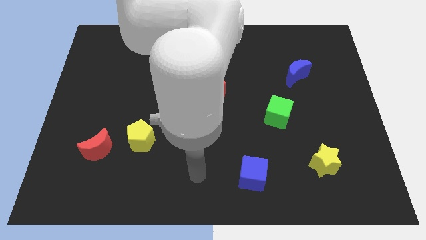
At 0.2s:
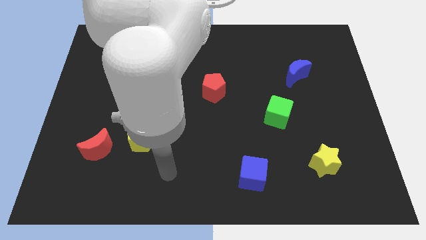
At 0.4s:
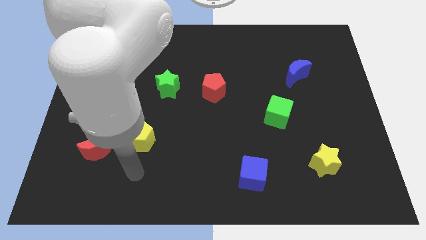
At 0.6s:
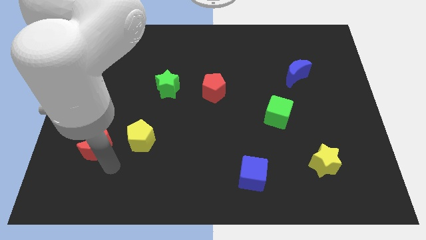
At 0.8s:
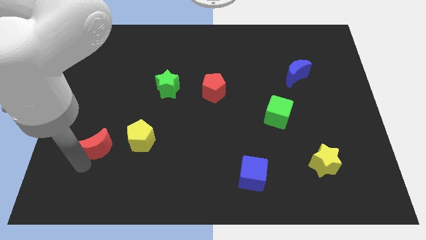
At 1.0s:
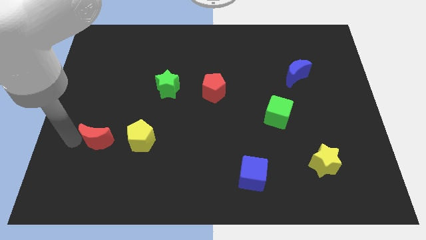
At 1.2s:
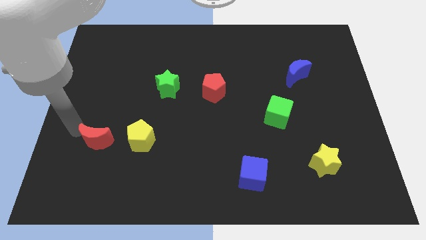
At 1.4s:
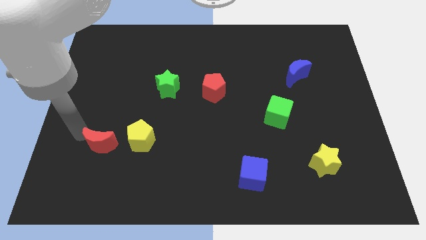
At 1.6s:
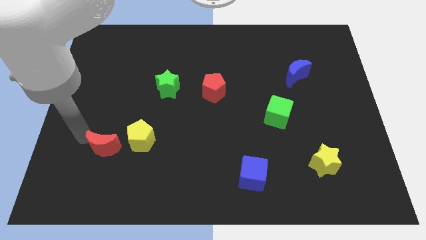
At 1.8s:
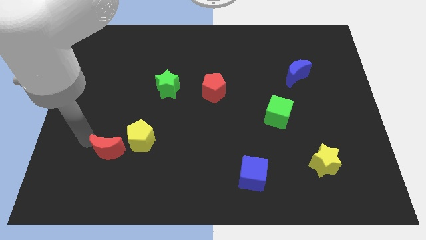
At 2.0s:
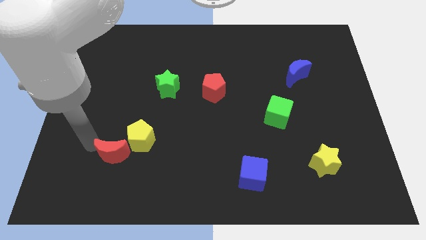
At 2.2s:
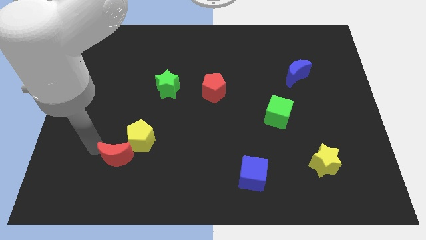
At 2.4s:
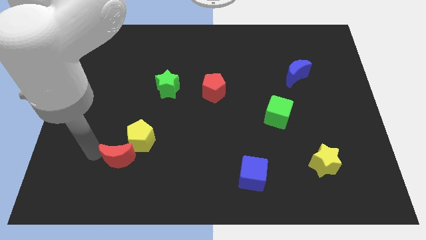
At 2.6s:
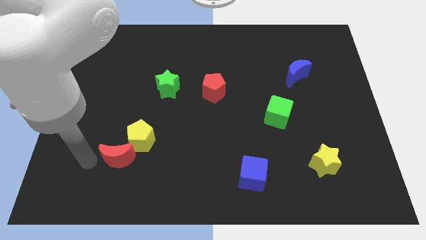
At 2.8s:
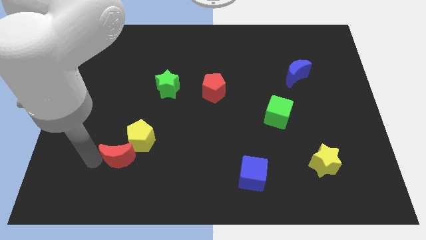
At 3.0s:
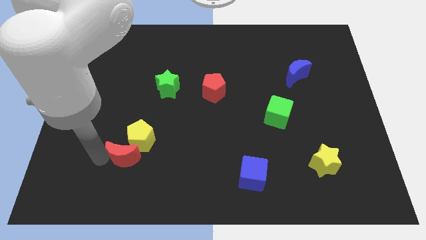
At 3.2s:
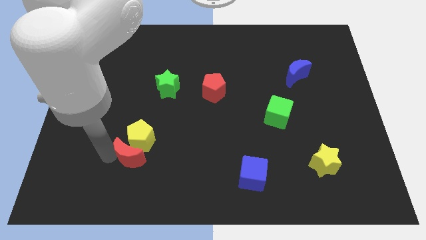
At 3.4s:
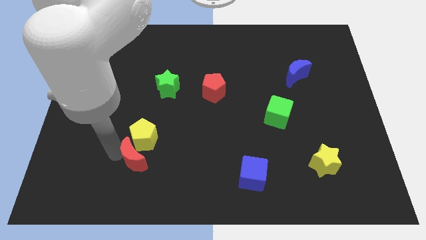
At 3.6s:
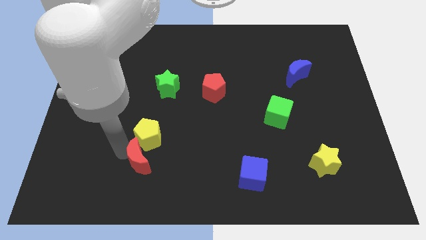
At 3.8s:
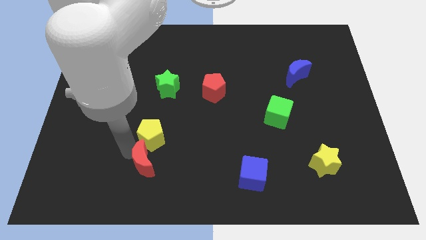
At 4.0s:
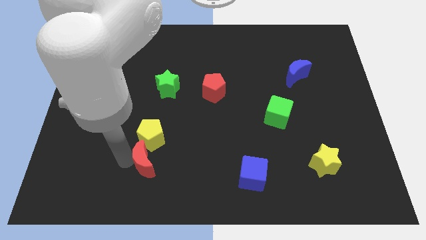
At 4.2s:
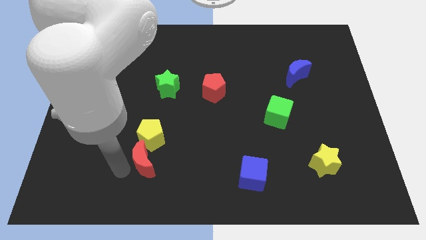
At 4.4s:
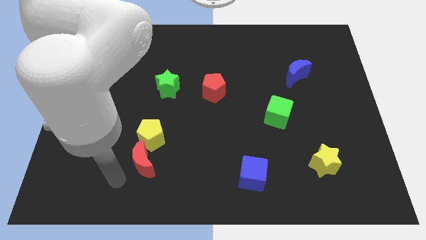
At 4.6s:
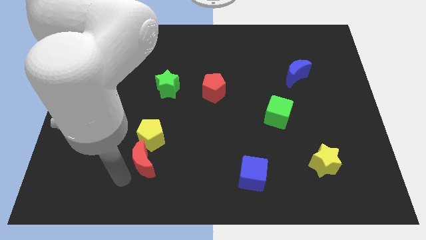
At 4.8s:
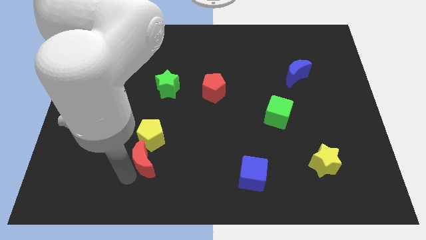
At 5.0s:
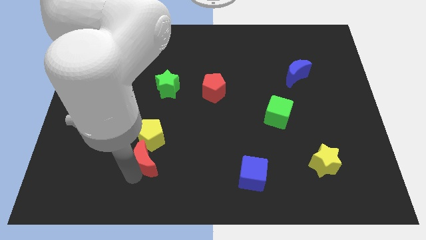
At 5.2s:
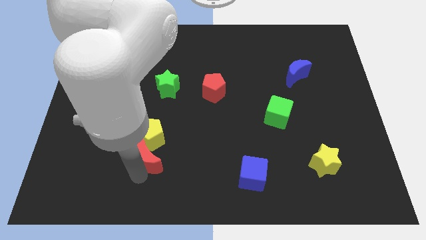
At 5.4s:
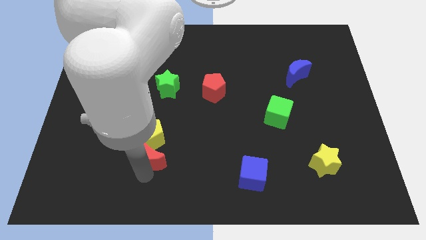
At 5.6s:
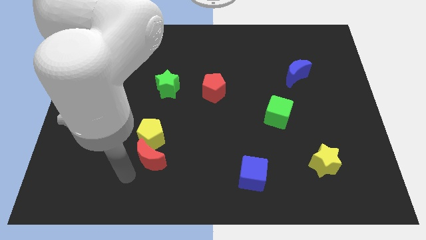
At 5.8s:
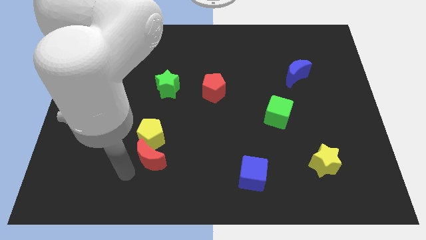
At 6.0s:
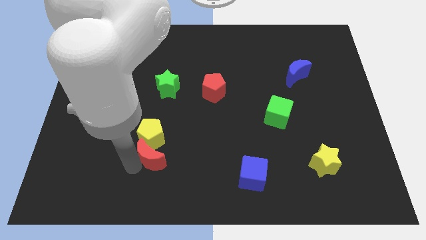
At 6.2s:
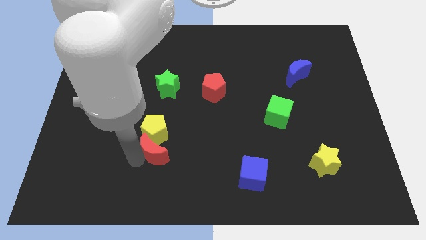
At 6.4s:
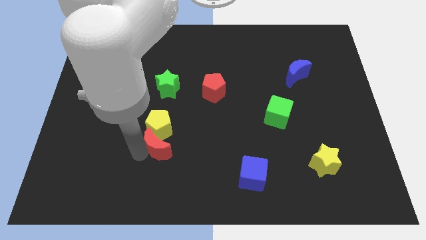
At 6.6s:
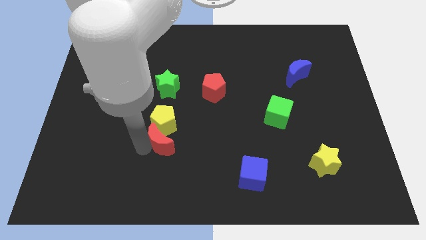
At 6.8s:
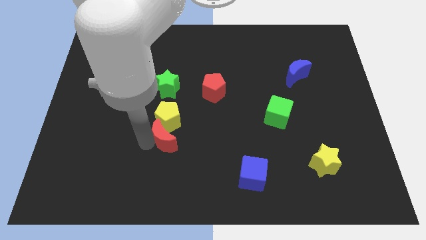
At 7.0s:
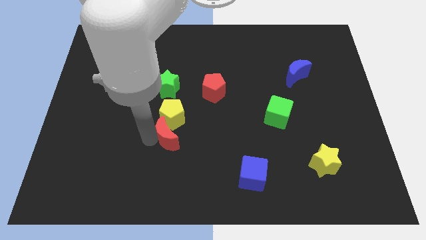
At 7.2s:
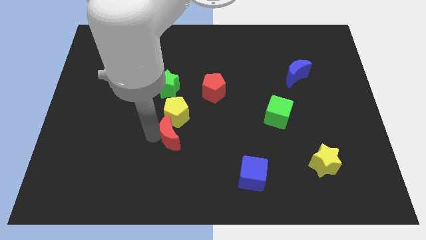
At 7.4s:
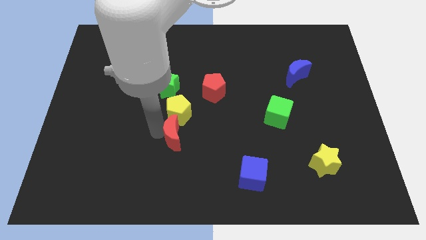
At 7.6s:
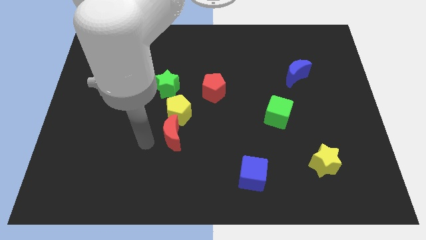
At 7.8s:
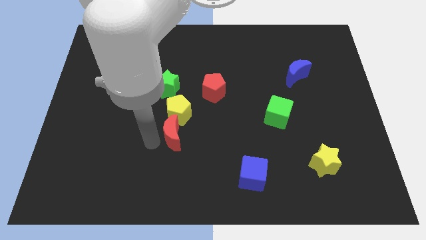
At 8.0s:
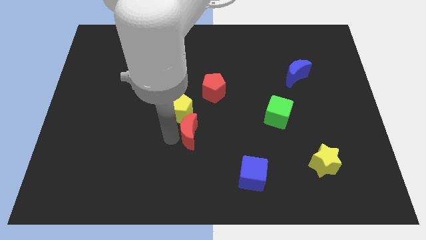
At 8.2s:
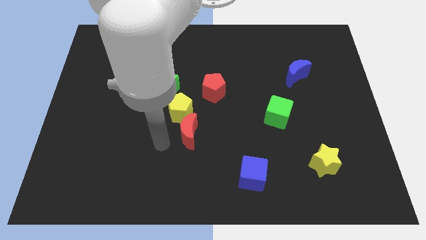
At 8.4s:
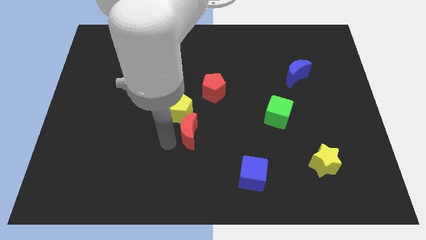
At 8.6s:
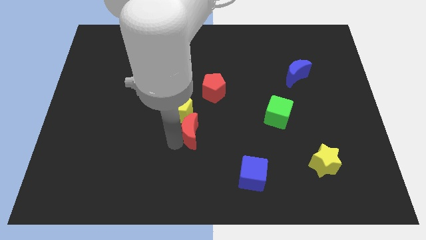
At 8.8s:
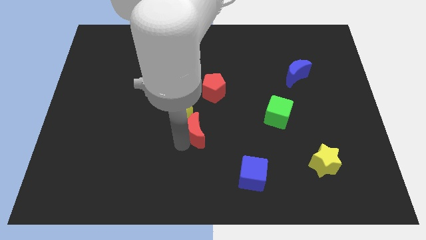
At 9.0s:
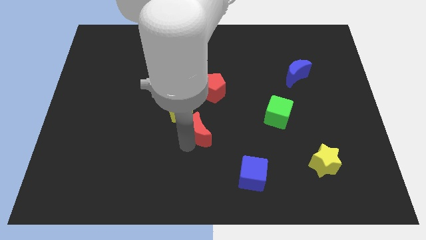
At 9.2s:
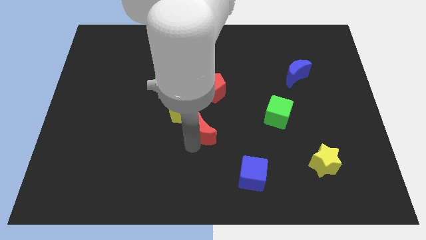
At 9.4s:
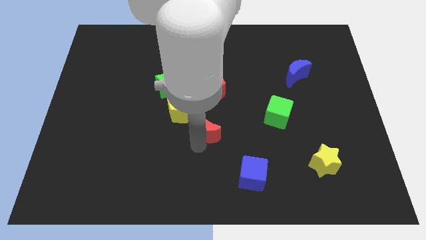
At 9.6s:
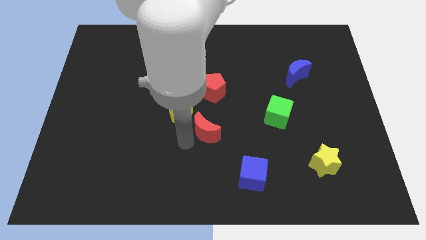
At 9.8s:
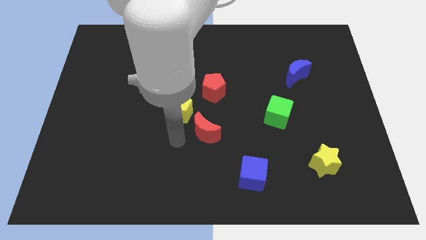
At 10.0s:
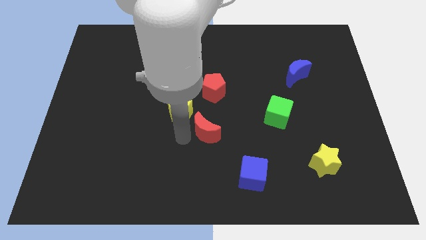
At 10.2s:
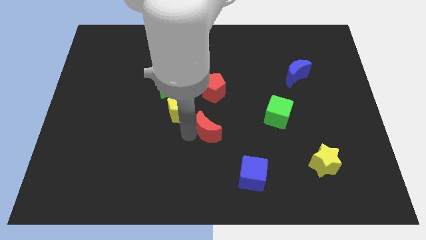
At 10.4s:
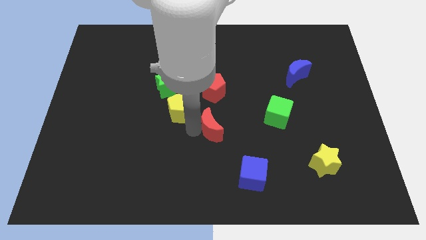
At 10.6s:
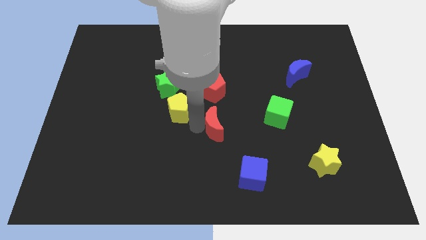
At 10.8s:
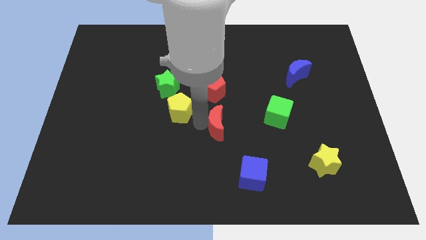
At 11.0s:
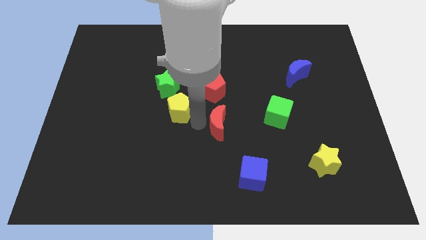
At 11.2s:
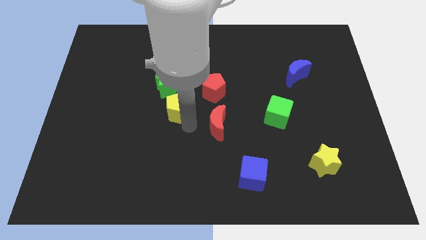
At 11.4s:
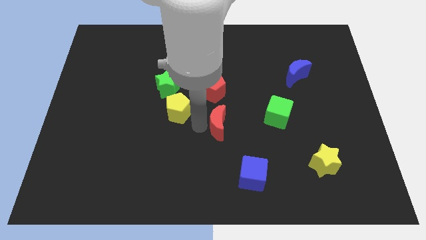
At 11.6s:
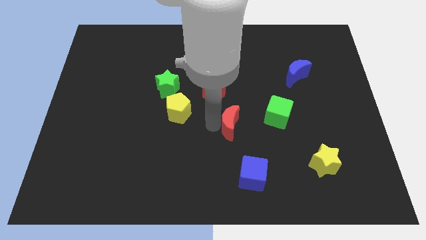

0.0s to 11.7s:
push the red moon to the top of the blue cube

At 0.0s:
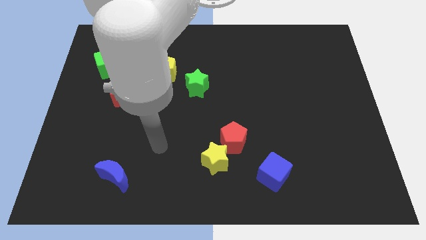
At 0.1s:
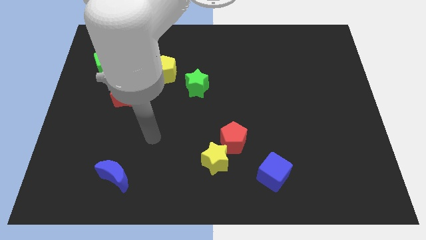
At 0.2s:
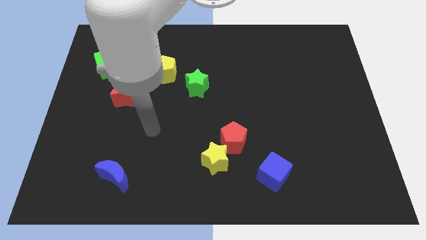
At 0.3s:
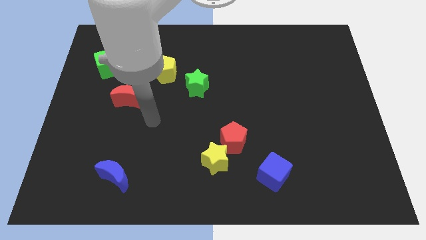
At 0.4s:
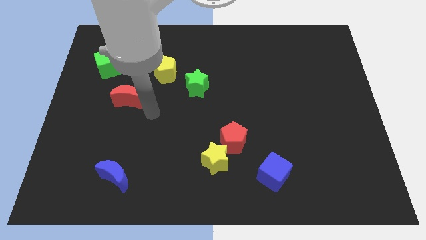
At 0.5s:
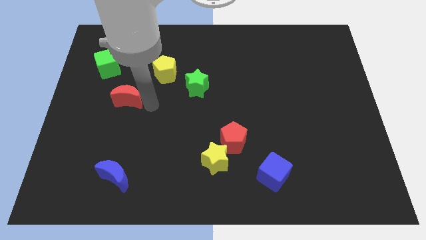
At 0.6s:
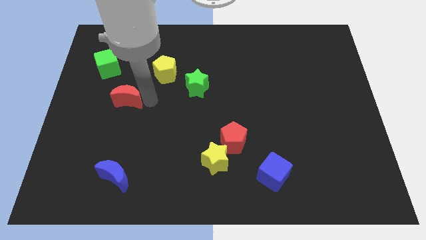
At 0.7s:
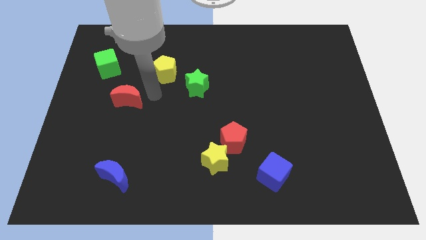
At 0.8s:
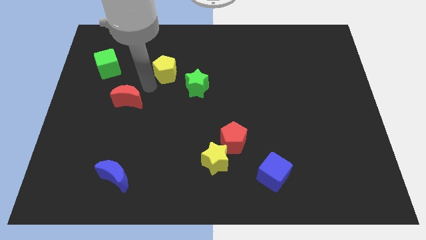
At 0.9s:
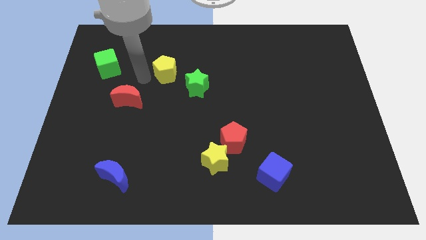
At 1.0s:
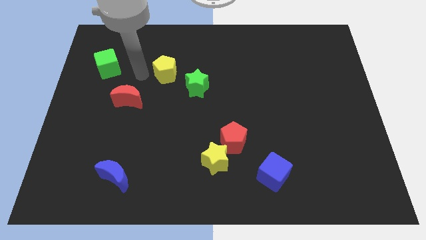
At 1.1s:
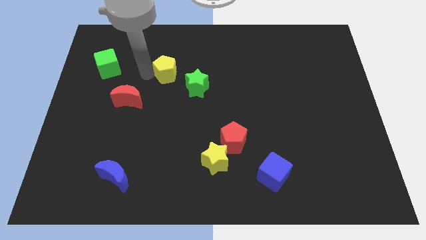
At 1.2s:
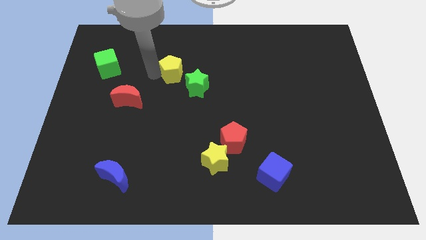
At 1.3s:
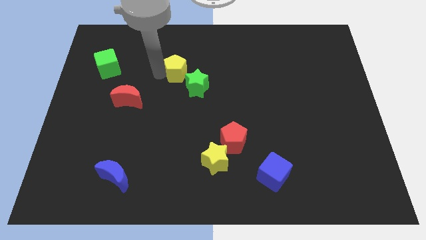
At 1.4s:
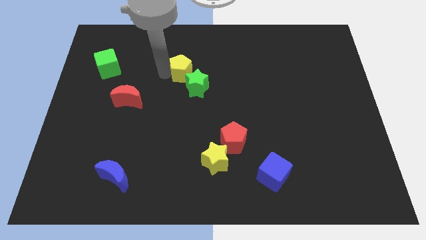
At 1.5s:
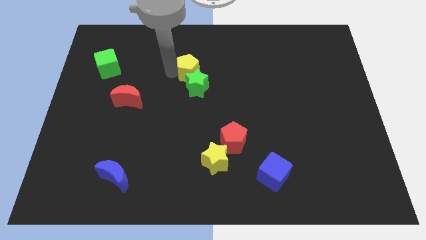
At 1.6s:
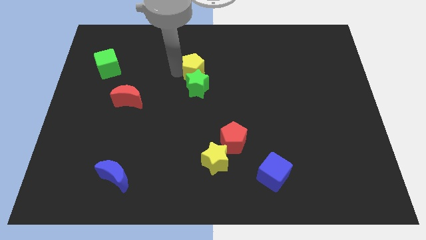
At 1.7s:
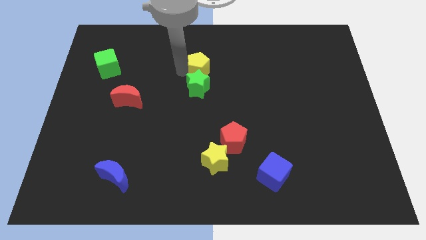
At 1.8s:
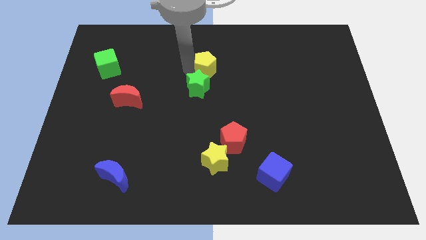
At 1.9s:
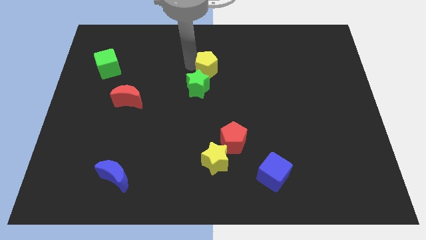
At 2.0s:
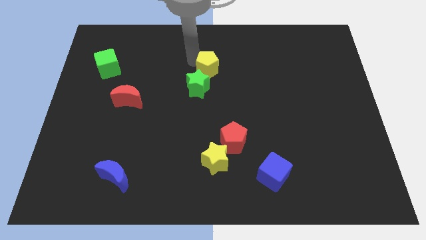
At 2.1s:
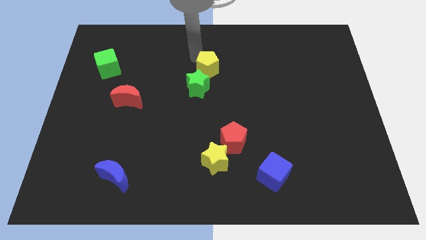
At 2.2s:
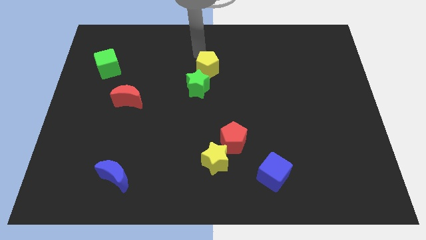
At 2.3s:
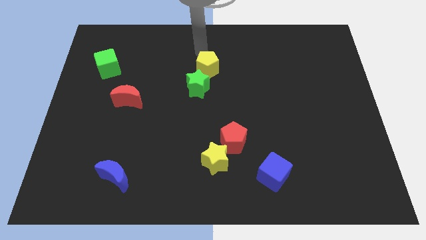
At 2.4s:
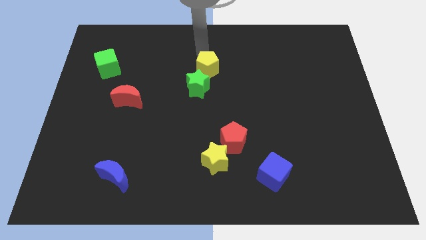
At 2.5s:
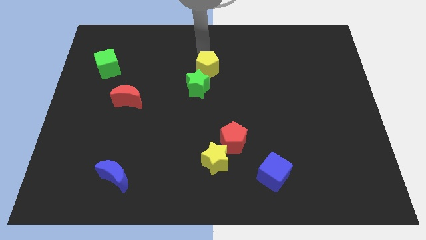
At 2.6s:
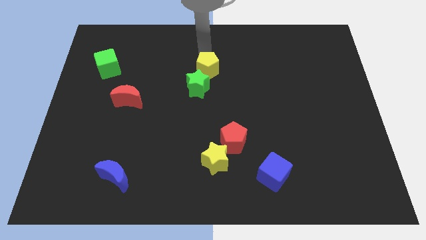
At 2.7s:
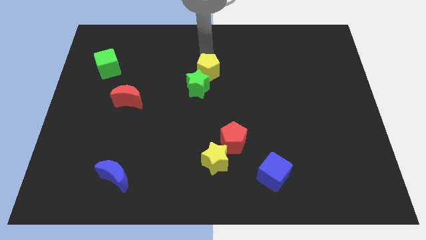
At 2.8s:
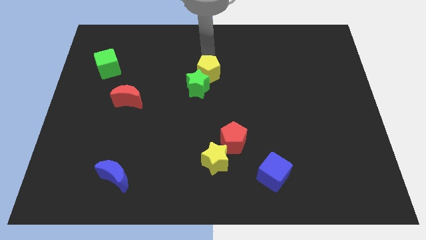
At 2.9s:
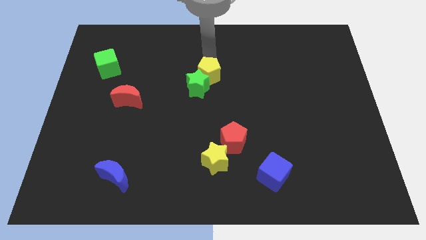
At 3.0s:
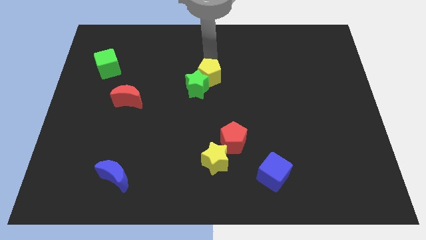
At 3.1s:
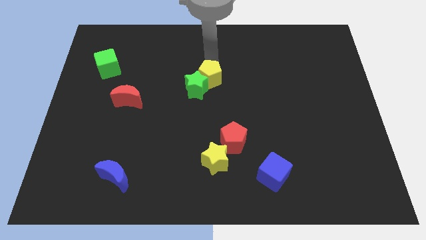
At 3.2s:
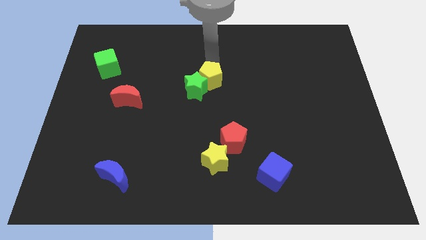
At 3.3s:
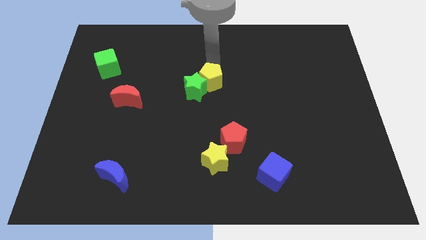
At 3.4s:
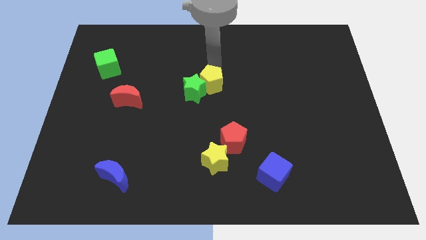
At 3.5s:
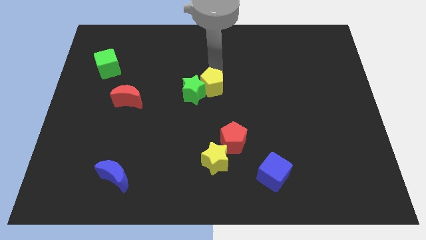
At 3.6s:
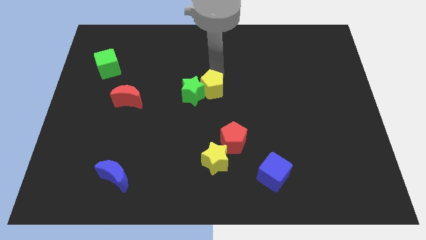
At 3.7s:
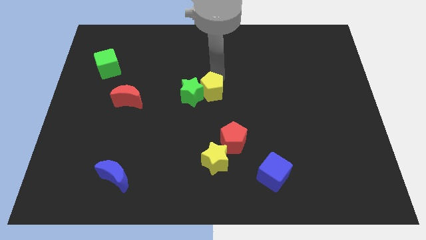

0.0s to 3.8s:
push the yellow pentagon to the bottom right of the green star
